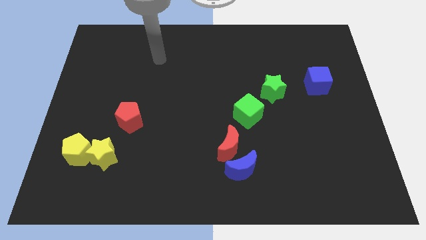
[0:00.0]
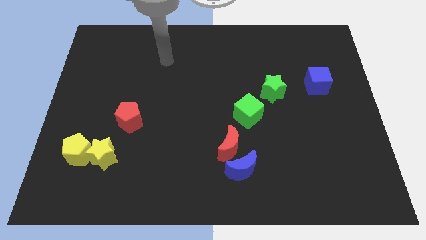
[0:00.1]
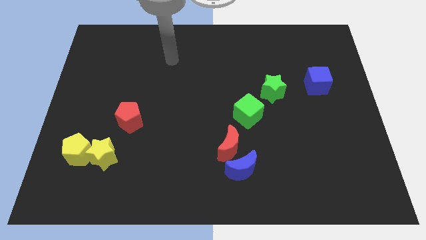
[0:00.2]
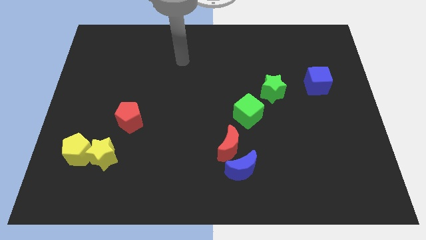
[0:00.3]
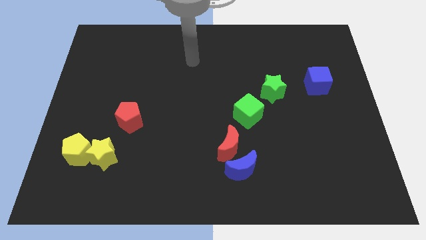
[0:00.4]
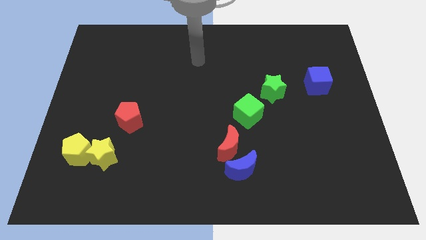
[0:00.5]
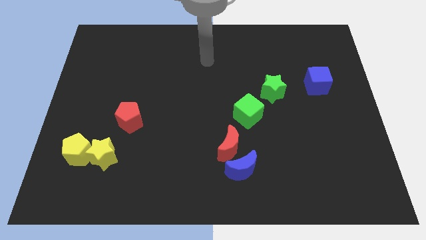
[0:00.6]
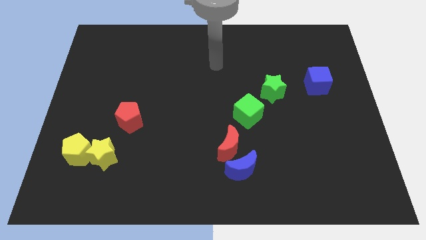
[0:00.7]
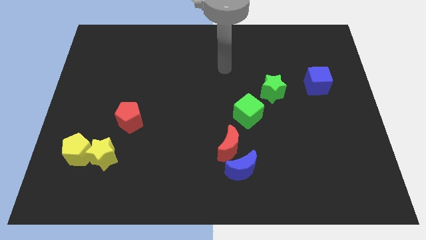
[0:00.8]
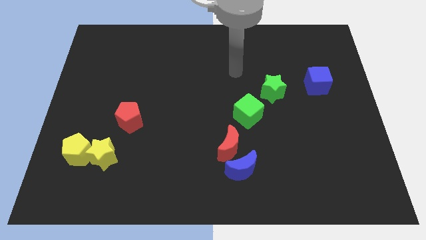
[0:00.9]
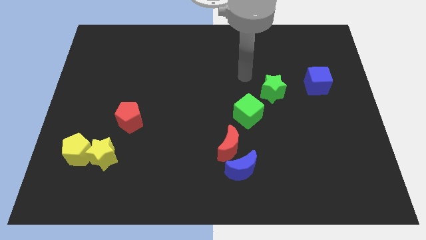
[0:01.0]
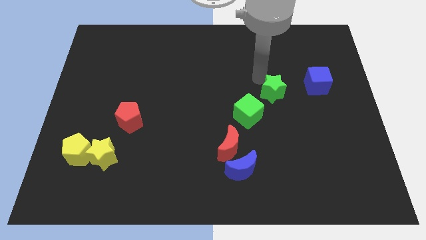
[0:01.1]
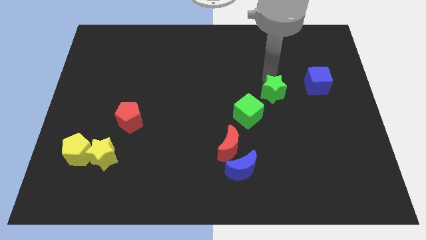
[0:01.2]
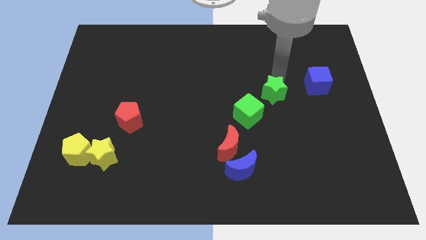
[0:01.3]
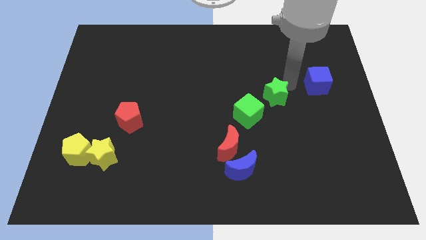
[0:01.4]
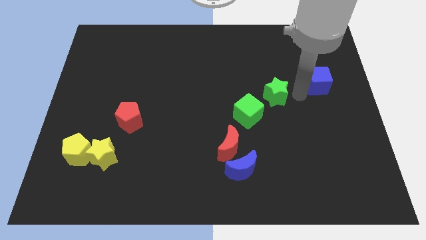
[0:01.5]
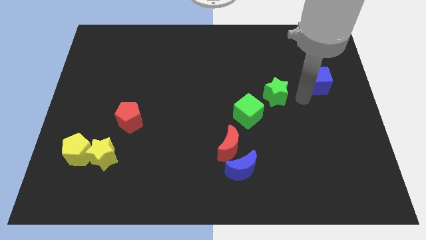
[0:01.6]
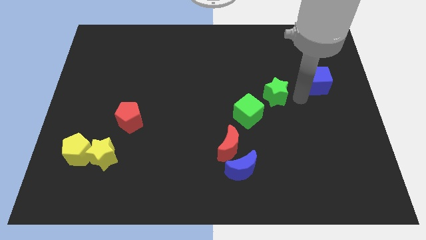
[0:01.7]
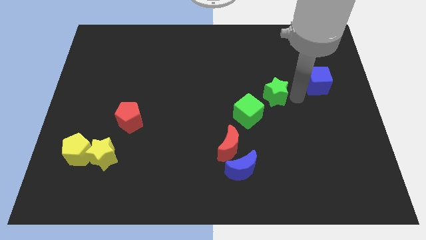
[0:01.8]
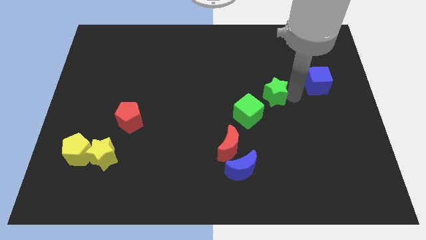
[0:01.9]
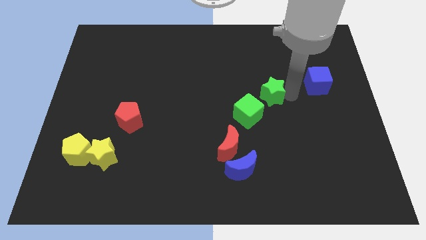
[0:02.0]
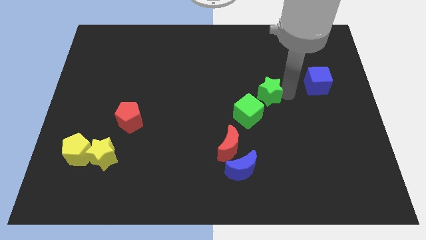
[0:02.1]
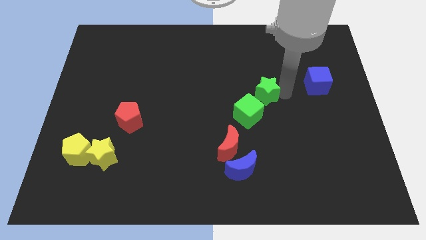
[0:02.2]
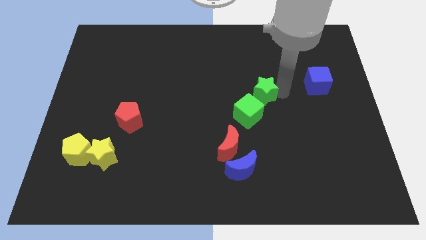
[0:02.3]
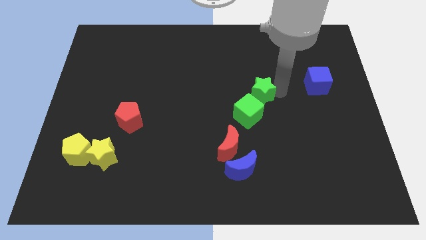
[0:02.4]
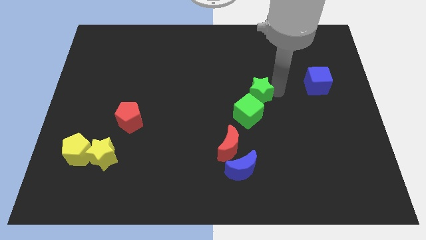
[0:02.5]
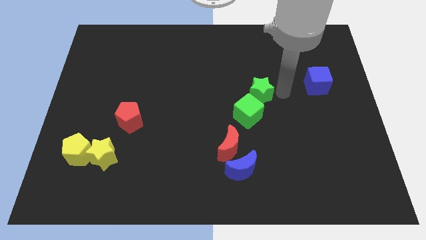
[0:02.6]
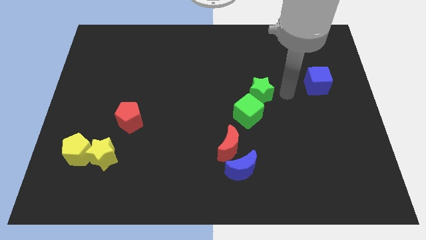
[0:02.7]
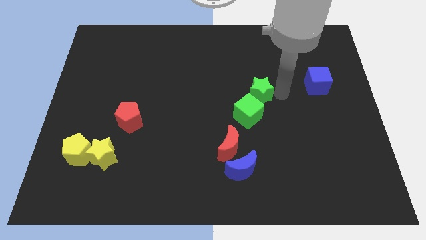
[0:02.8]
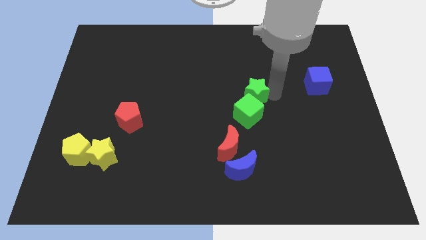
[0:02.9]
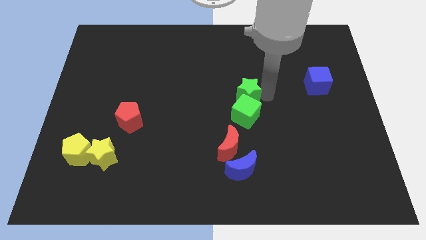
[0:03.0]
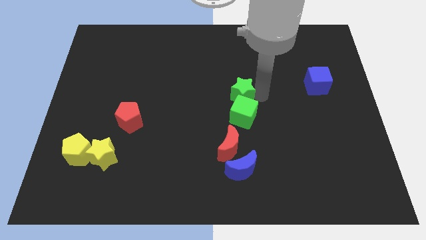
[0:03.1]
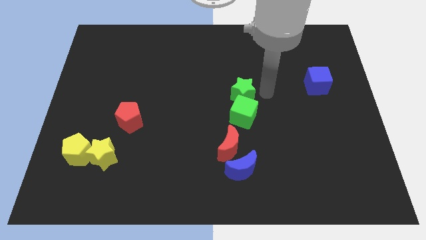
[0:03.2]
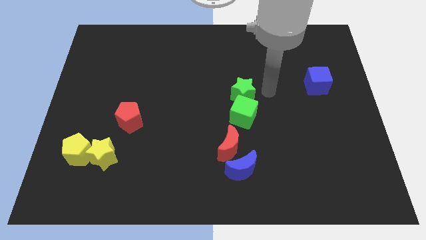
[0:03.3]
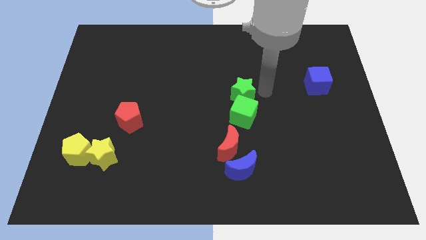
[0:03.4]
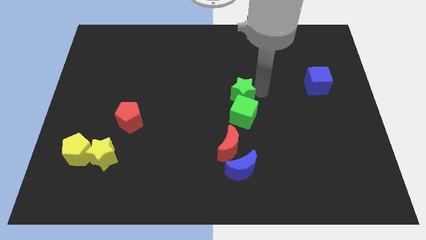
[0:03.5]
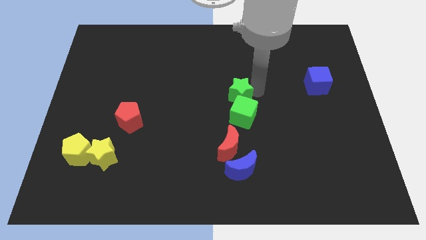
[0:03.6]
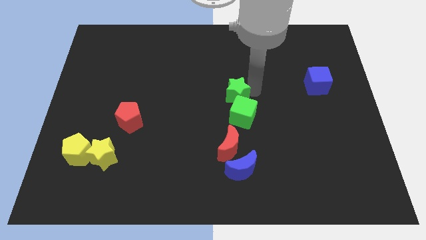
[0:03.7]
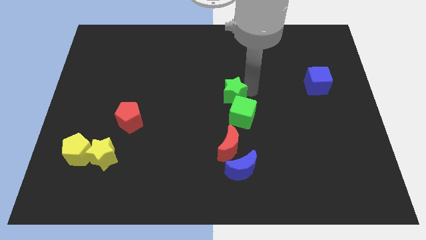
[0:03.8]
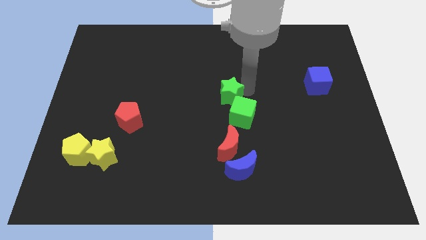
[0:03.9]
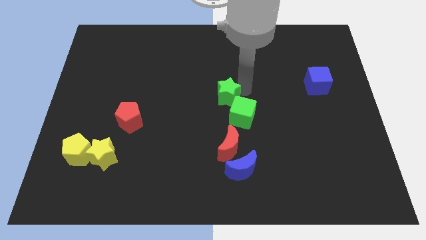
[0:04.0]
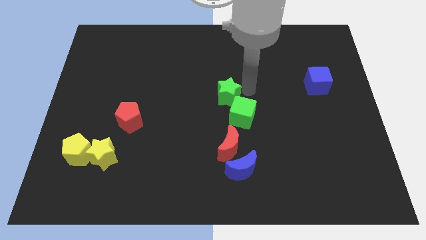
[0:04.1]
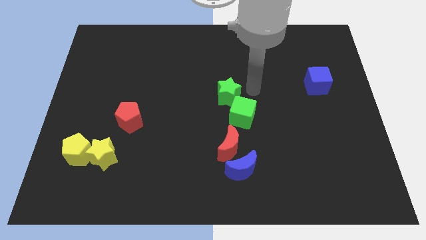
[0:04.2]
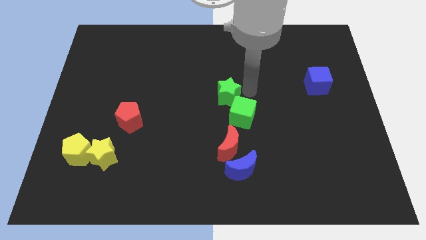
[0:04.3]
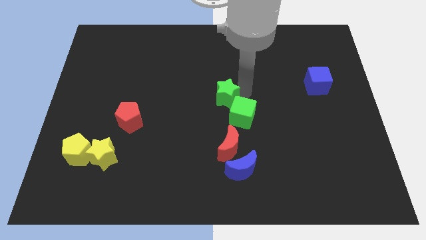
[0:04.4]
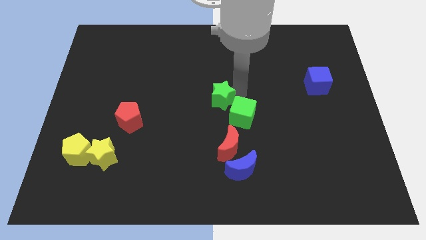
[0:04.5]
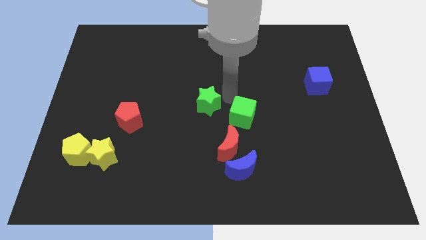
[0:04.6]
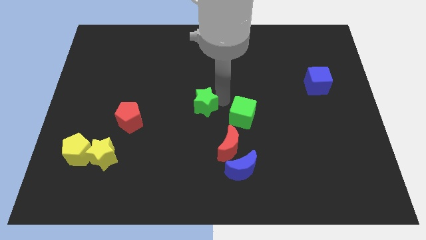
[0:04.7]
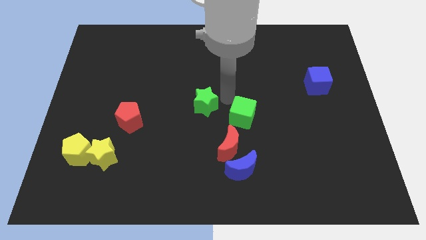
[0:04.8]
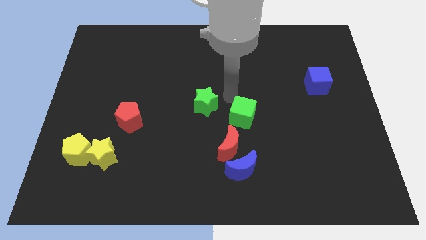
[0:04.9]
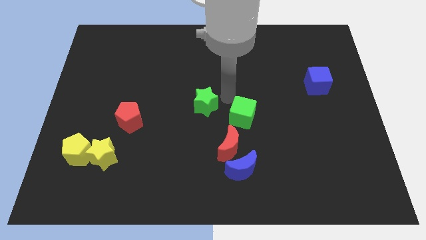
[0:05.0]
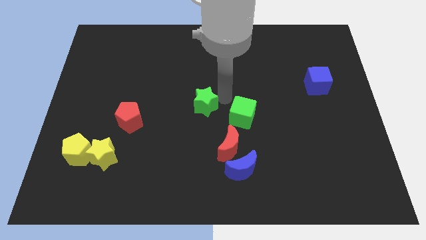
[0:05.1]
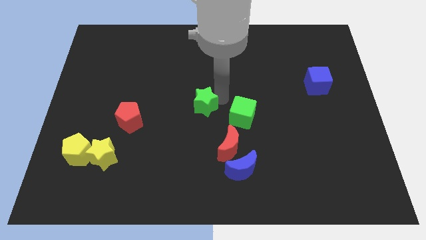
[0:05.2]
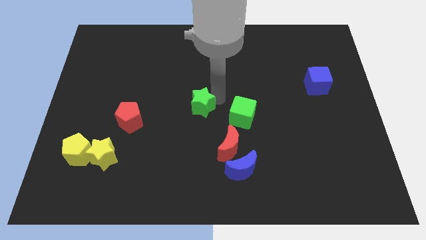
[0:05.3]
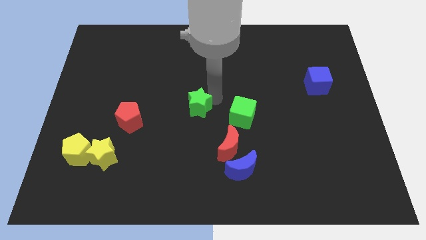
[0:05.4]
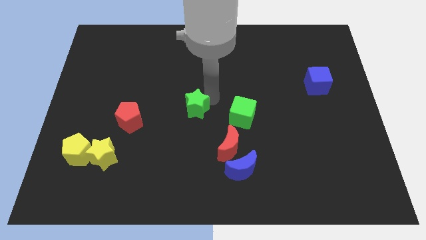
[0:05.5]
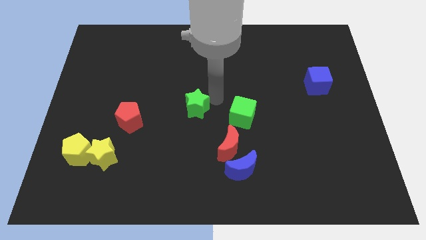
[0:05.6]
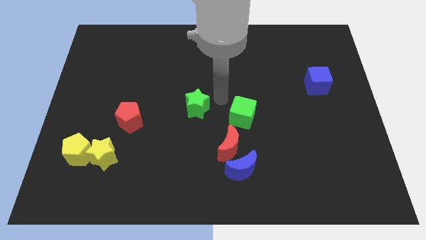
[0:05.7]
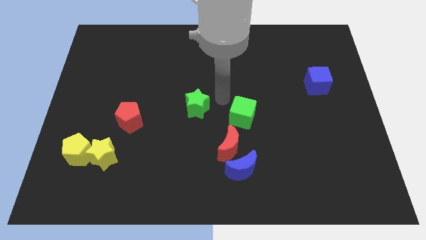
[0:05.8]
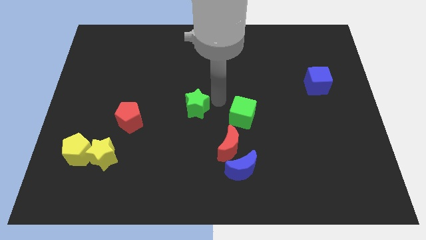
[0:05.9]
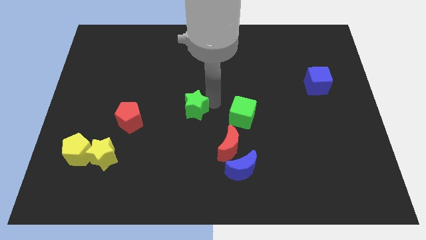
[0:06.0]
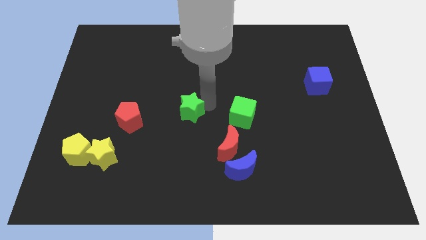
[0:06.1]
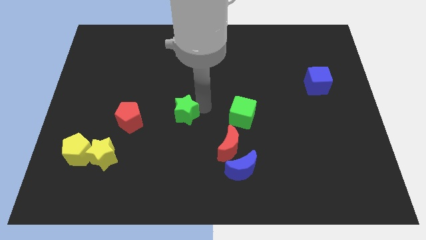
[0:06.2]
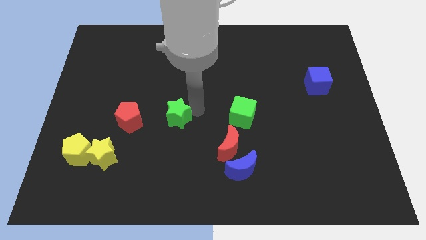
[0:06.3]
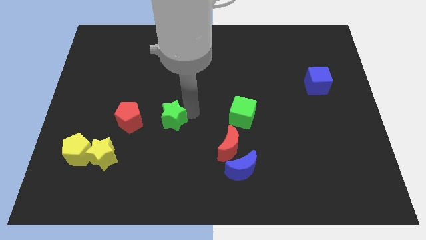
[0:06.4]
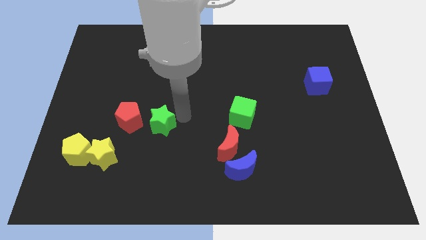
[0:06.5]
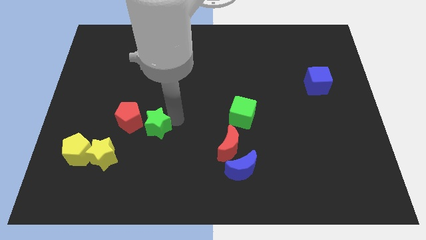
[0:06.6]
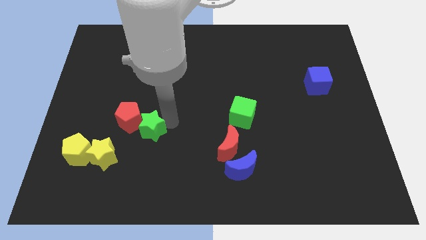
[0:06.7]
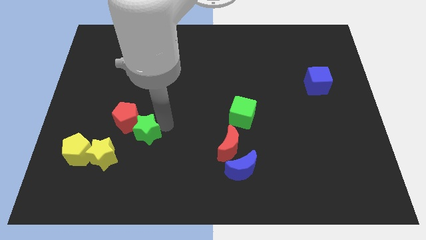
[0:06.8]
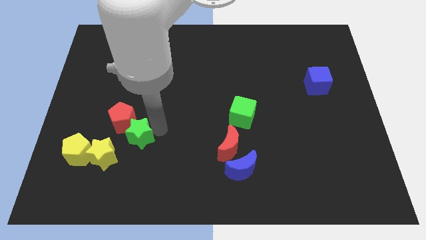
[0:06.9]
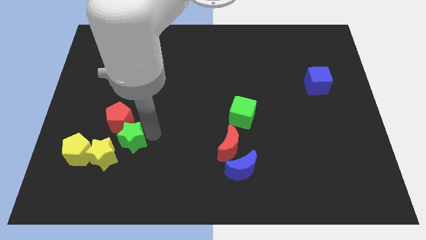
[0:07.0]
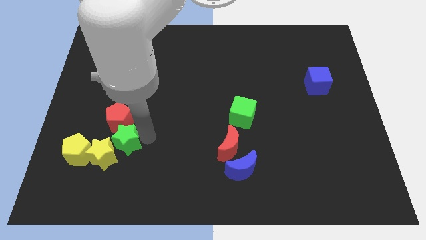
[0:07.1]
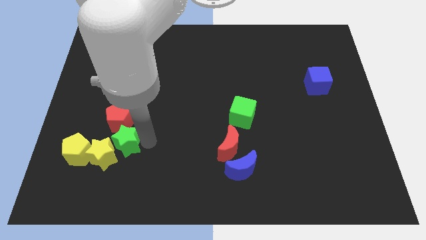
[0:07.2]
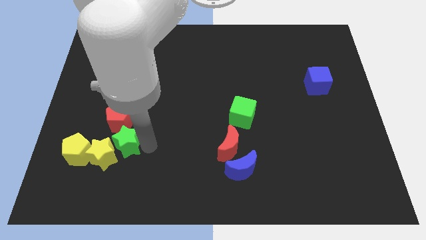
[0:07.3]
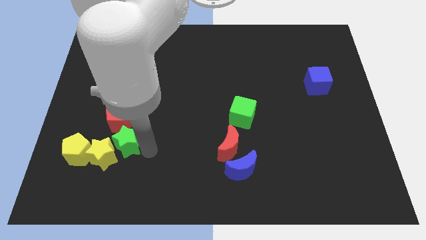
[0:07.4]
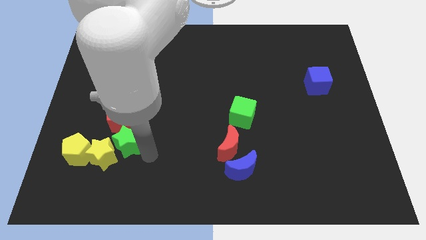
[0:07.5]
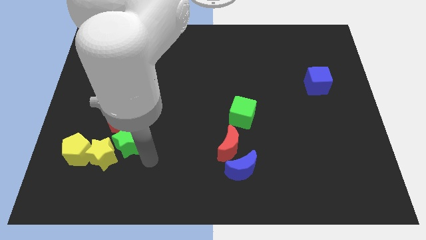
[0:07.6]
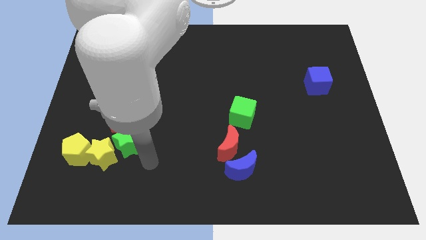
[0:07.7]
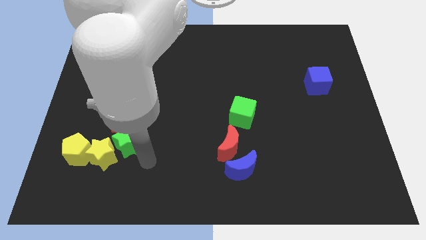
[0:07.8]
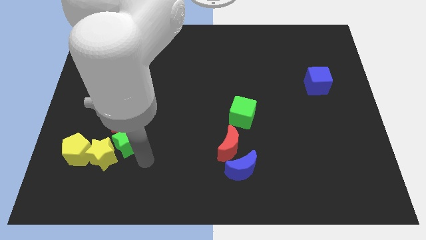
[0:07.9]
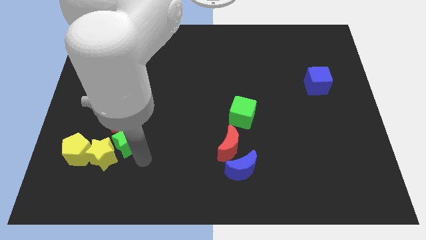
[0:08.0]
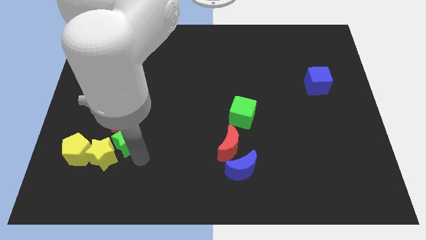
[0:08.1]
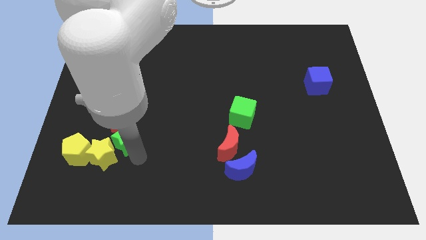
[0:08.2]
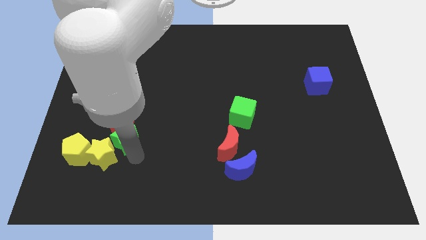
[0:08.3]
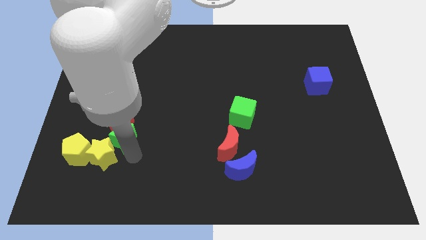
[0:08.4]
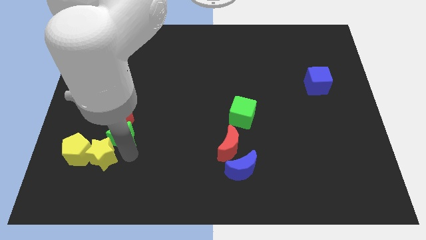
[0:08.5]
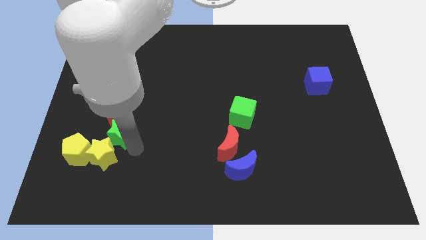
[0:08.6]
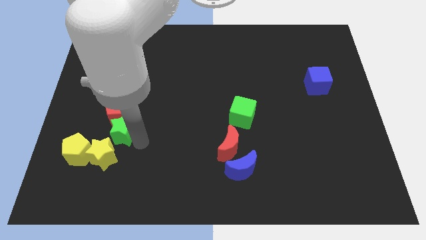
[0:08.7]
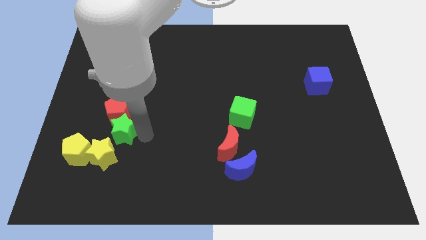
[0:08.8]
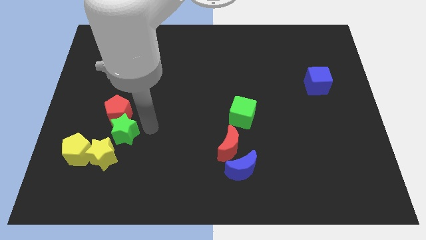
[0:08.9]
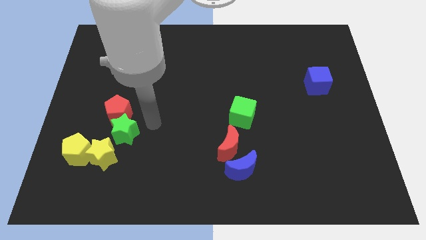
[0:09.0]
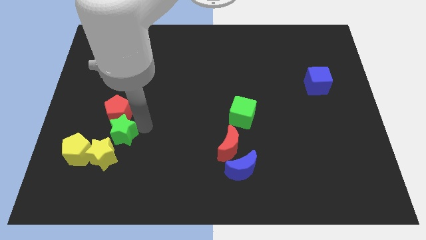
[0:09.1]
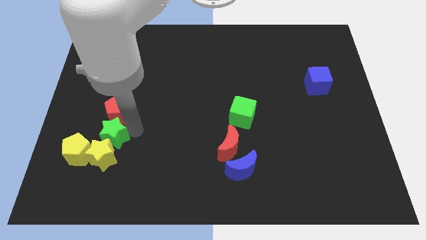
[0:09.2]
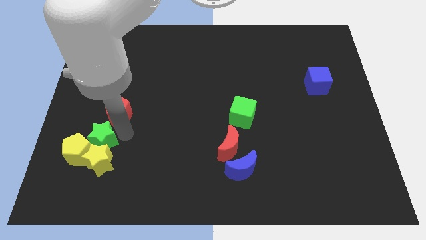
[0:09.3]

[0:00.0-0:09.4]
push the green star to the yellow pentagon
